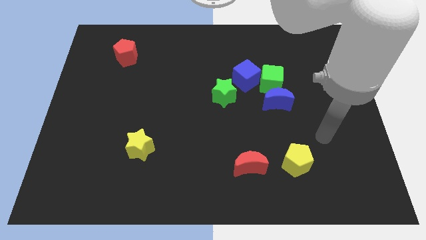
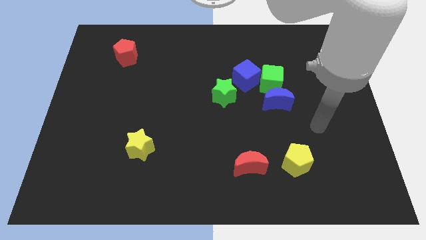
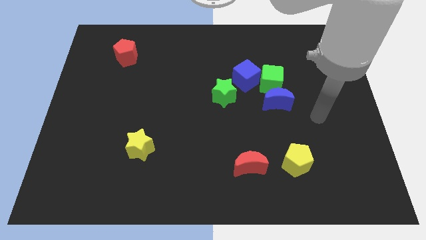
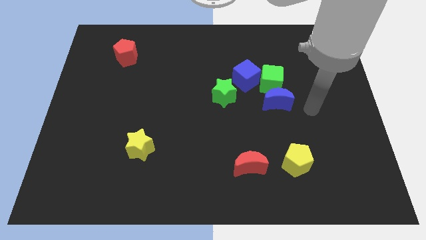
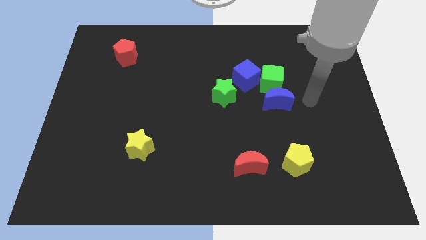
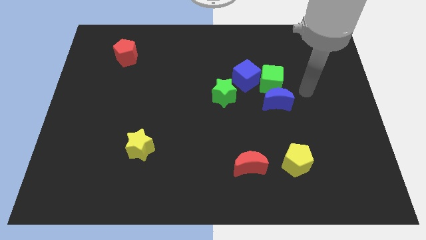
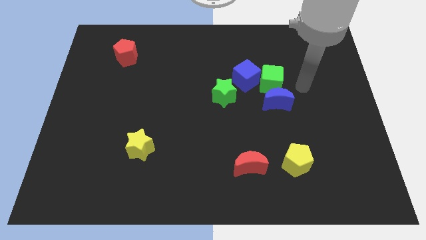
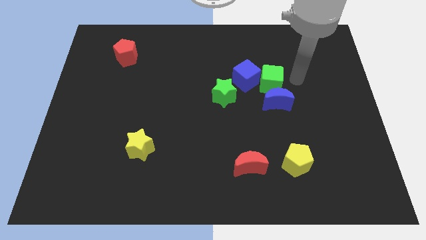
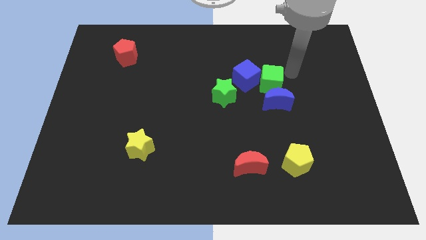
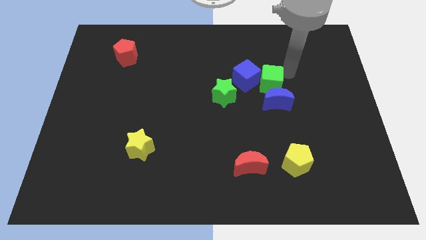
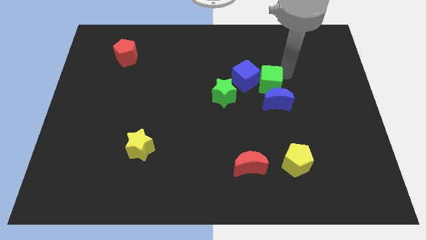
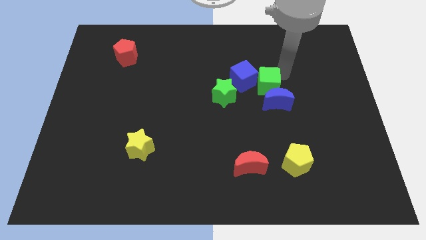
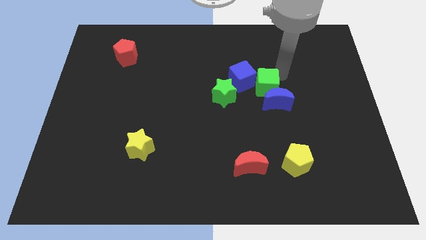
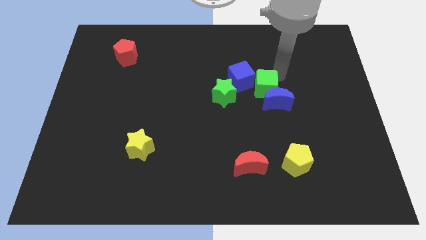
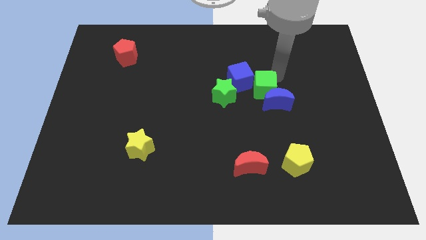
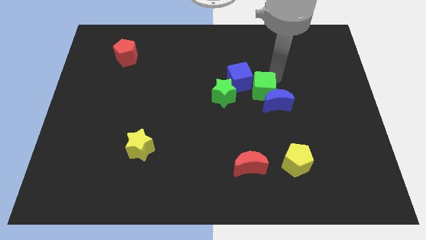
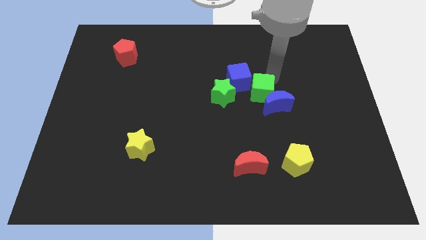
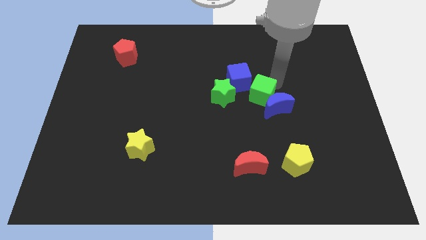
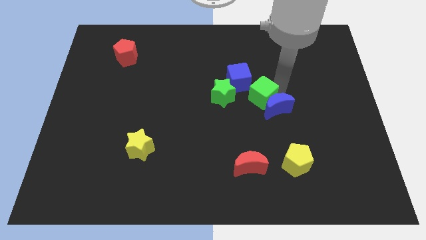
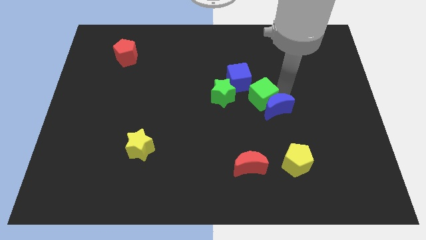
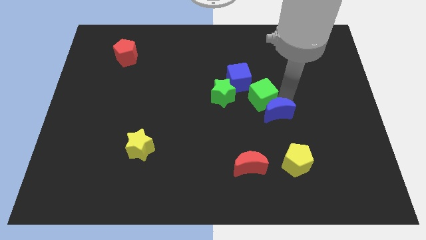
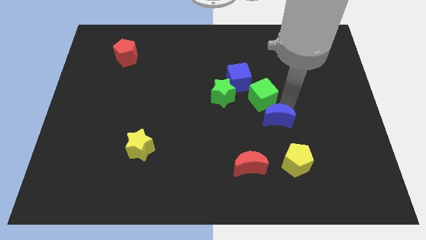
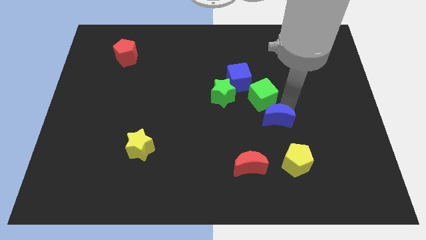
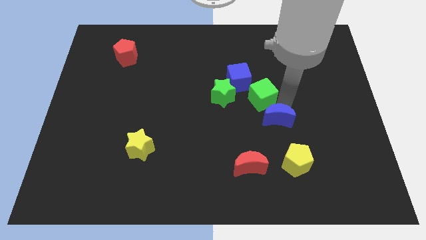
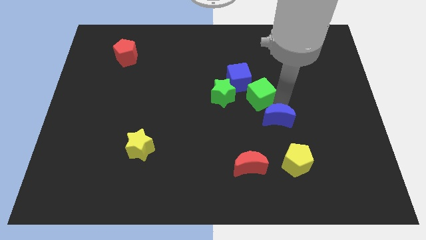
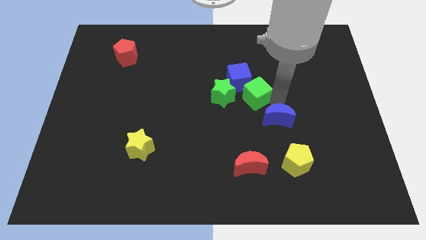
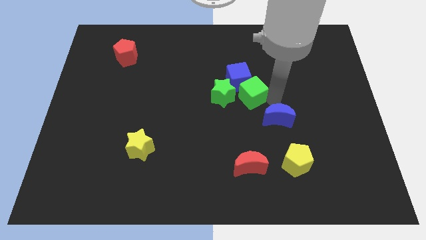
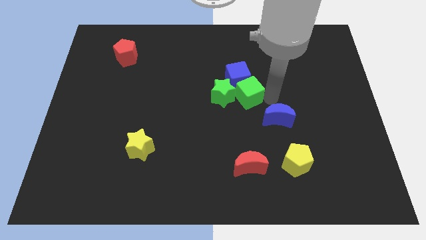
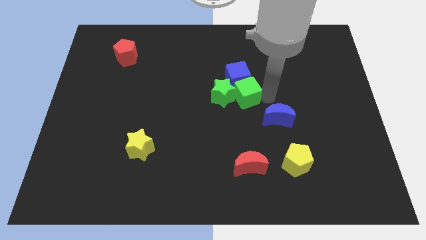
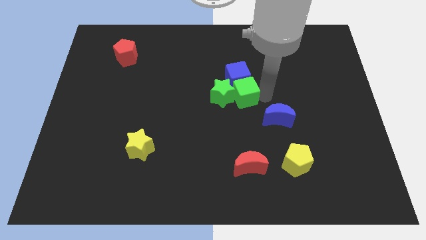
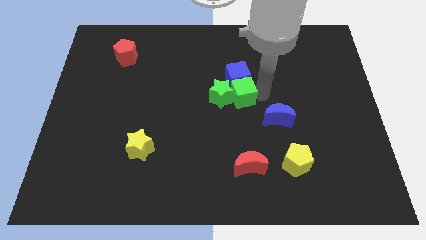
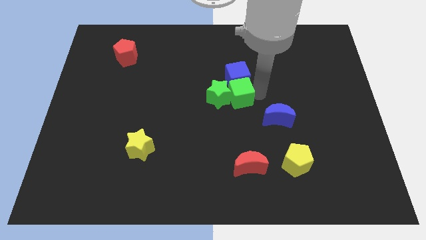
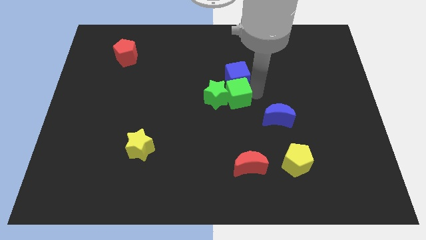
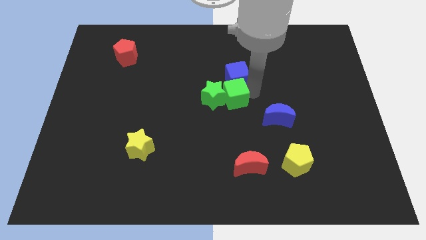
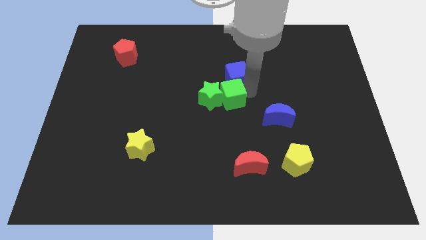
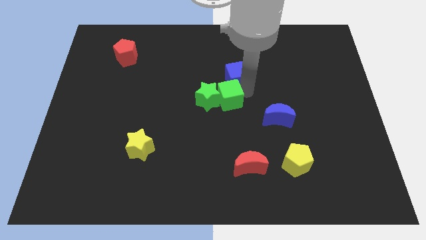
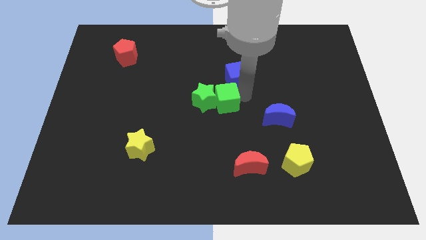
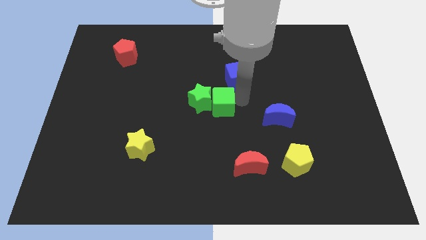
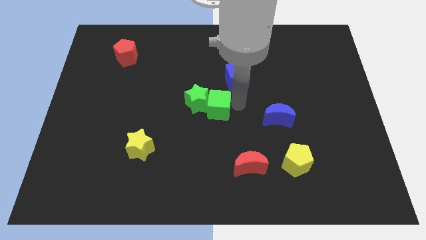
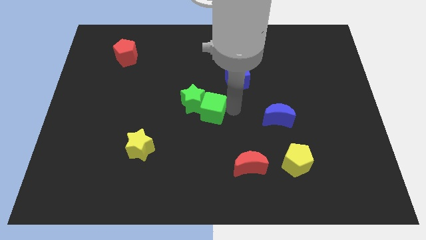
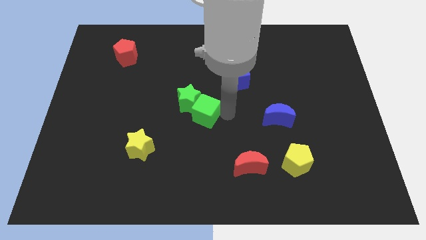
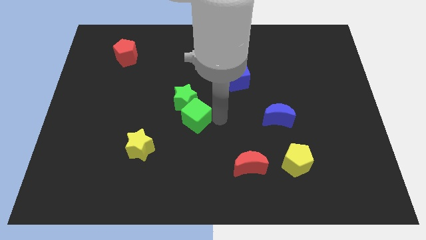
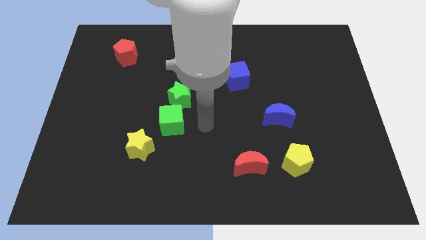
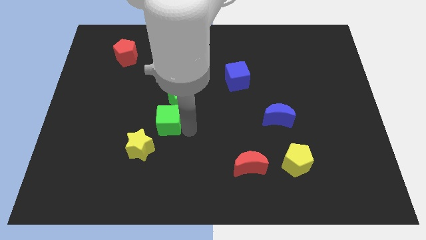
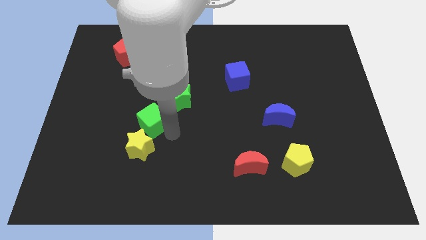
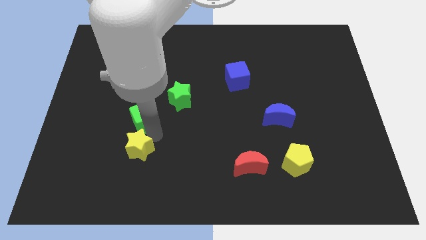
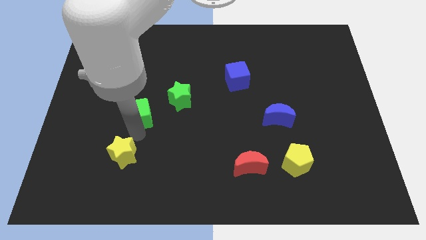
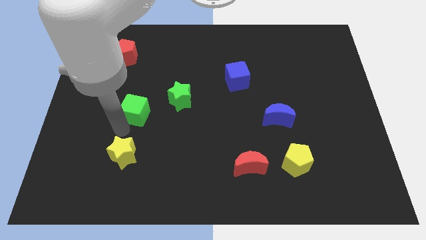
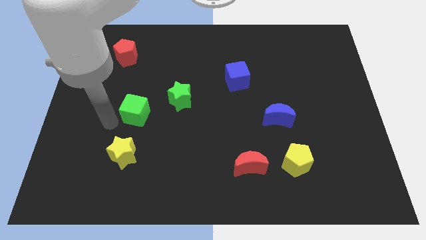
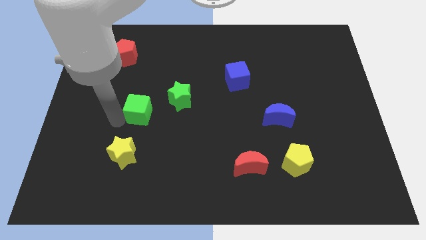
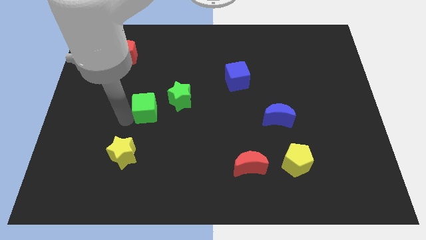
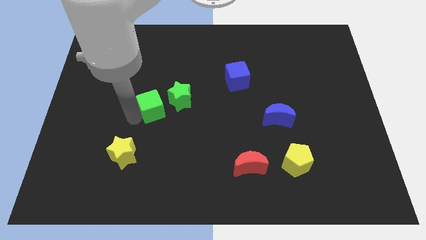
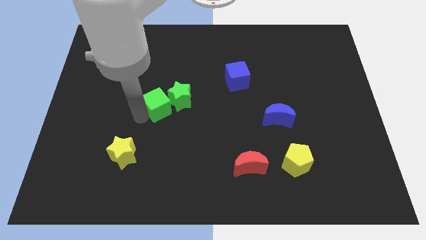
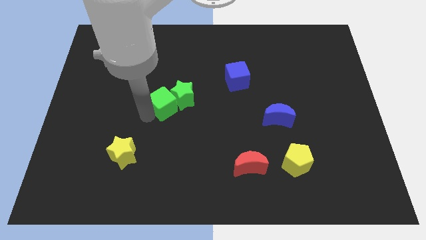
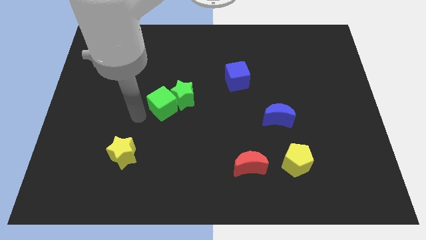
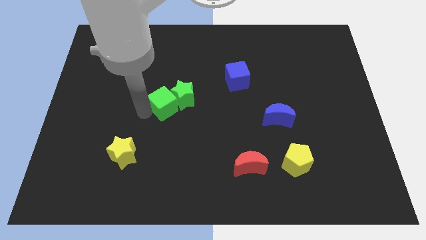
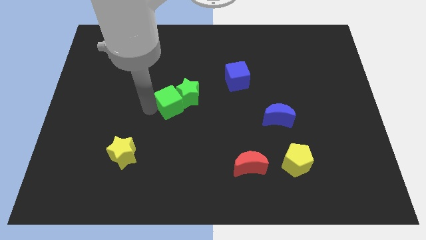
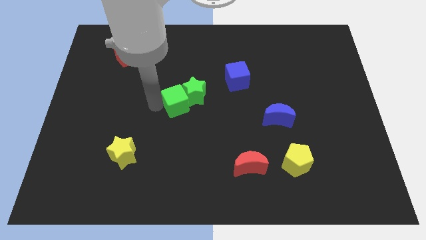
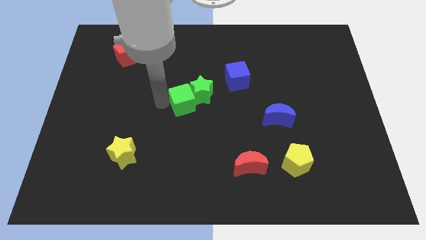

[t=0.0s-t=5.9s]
slide the green cube to the left of the green star
